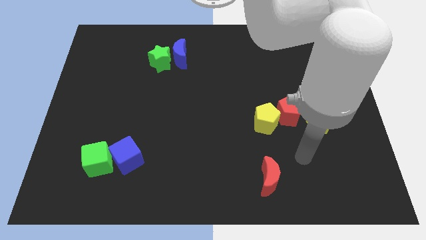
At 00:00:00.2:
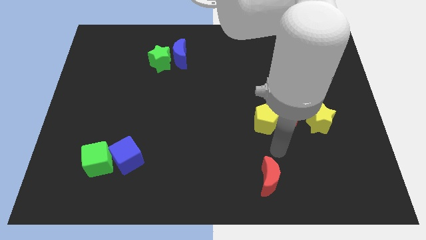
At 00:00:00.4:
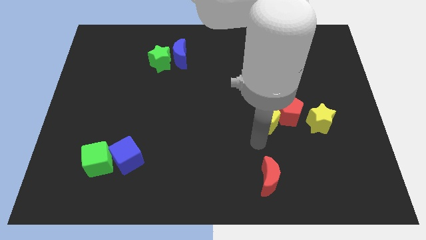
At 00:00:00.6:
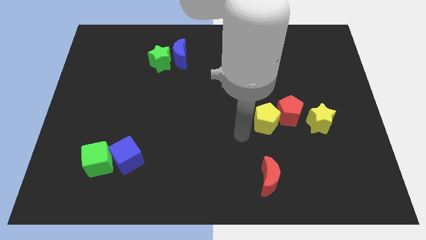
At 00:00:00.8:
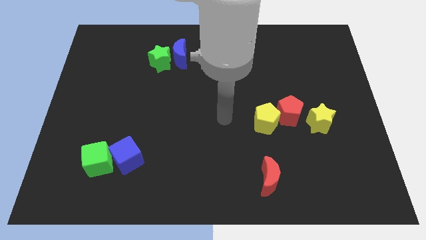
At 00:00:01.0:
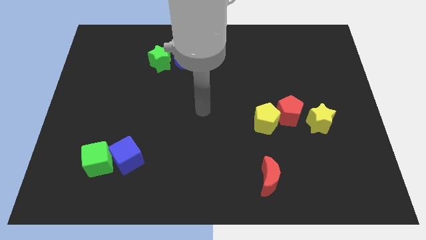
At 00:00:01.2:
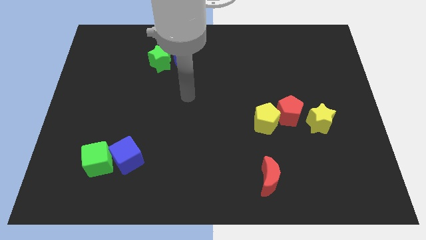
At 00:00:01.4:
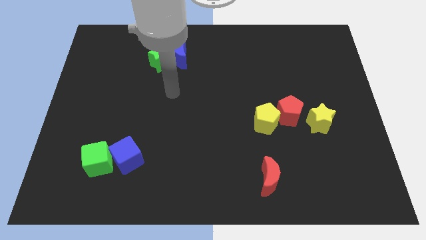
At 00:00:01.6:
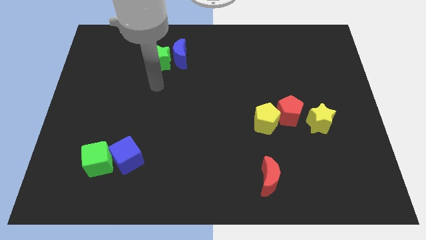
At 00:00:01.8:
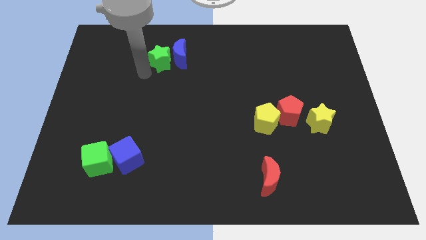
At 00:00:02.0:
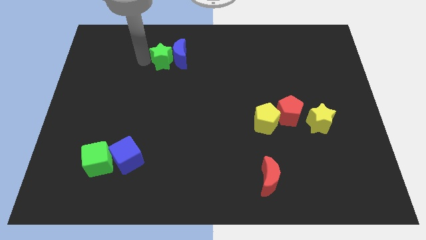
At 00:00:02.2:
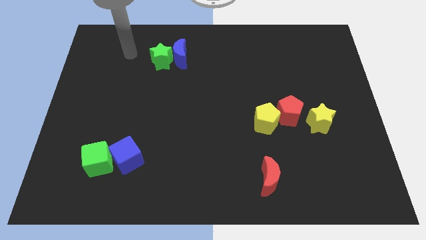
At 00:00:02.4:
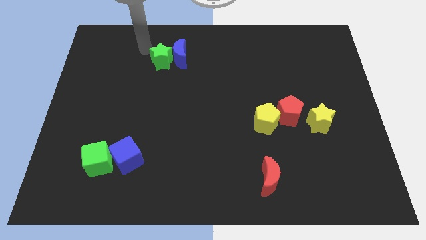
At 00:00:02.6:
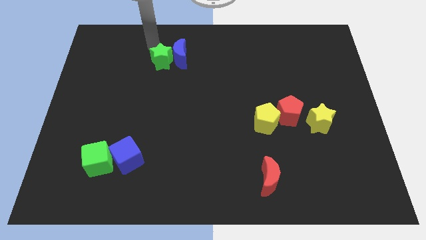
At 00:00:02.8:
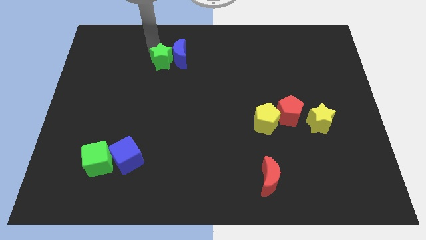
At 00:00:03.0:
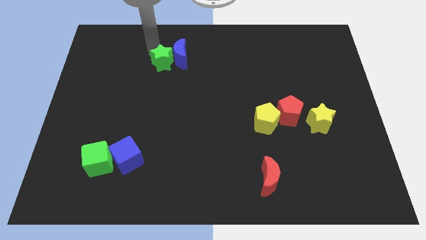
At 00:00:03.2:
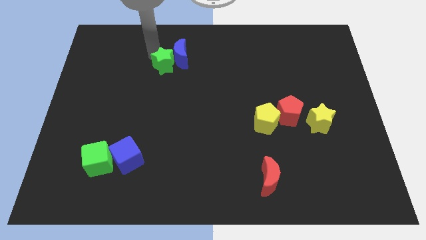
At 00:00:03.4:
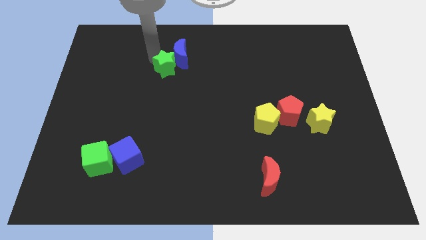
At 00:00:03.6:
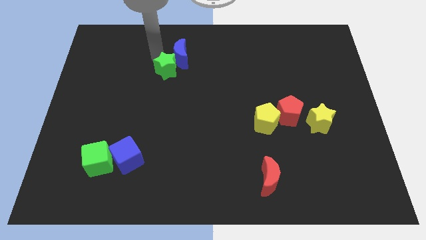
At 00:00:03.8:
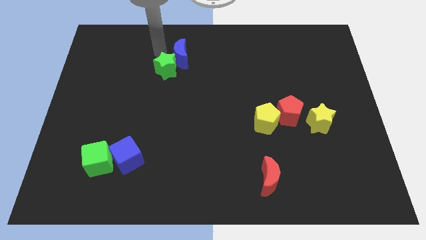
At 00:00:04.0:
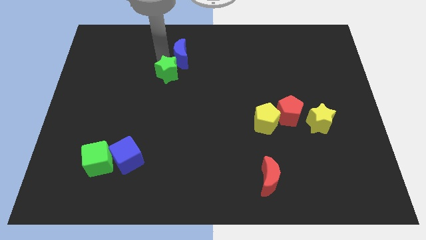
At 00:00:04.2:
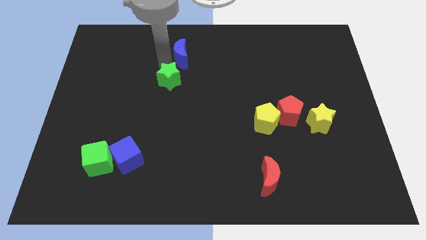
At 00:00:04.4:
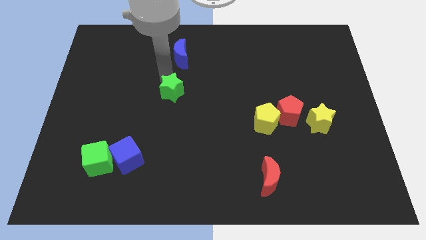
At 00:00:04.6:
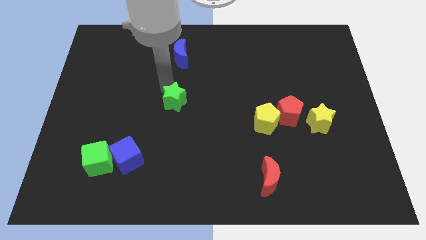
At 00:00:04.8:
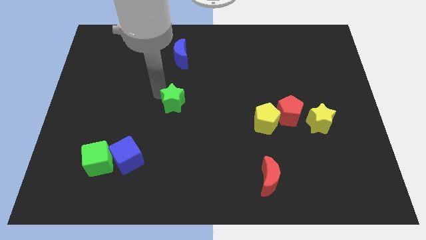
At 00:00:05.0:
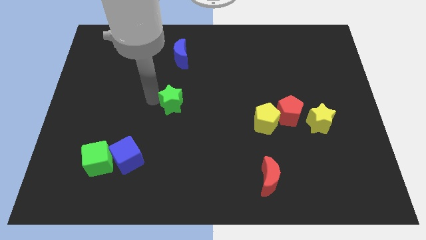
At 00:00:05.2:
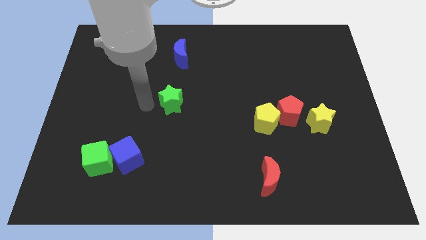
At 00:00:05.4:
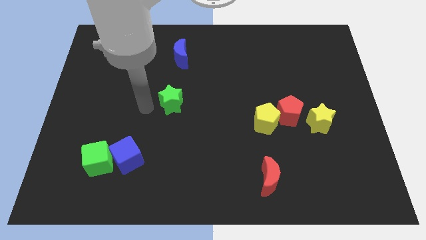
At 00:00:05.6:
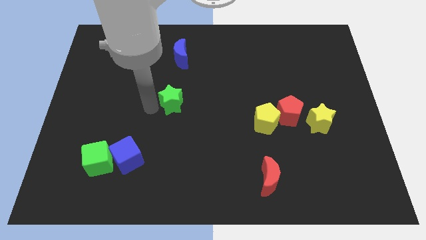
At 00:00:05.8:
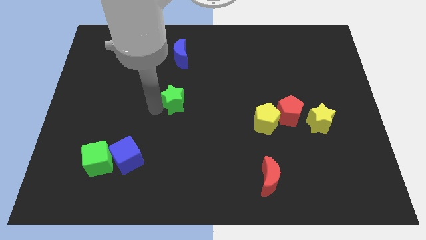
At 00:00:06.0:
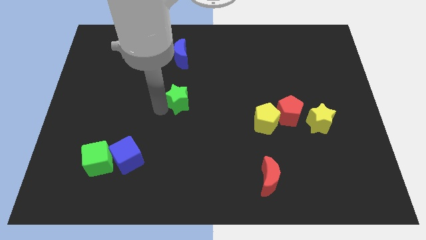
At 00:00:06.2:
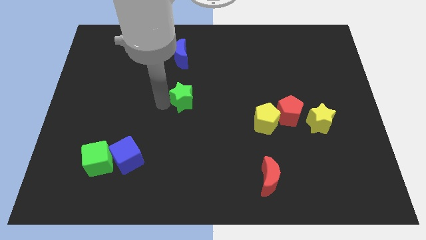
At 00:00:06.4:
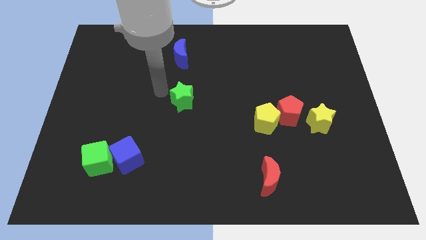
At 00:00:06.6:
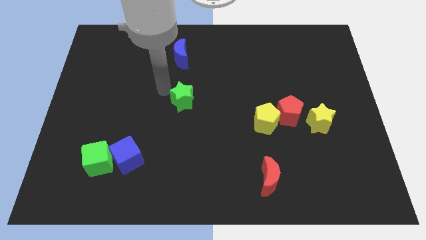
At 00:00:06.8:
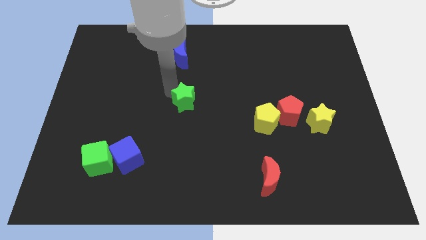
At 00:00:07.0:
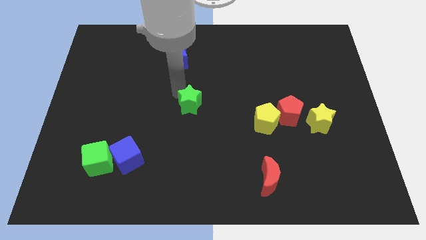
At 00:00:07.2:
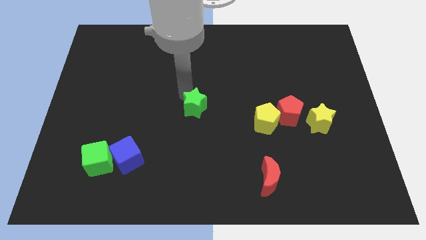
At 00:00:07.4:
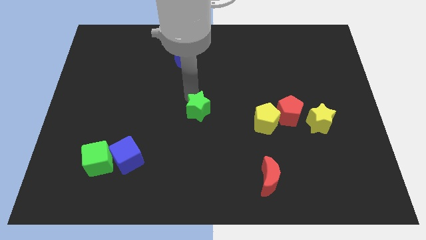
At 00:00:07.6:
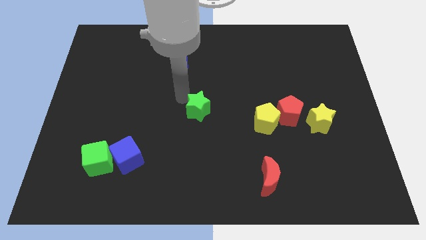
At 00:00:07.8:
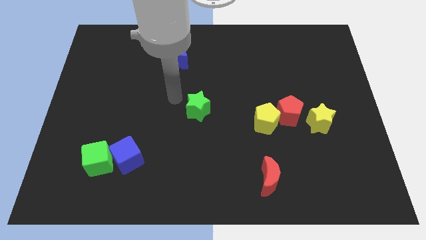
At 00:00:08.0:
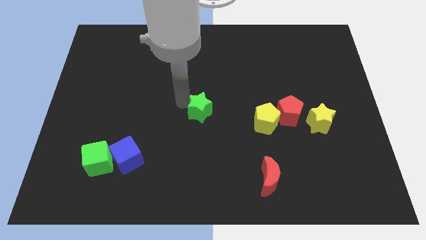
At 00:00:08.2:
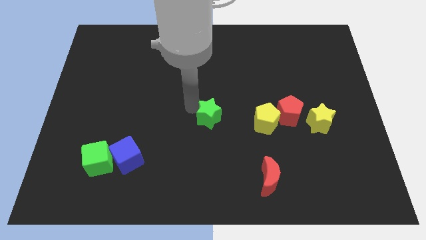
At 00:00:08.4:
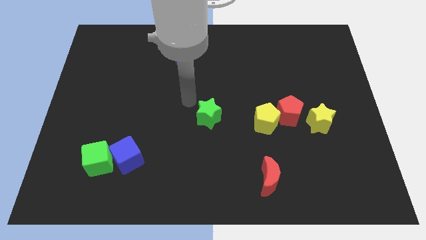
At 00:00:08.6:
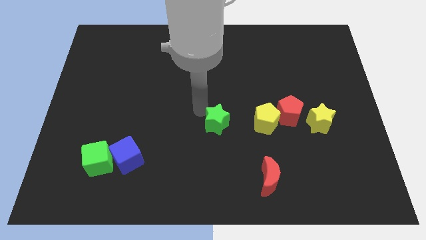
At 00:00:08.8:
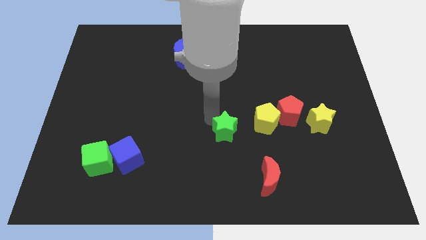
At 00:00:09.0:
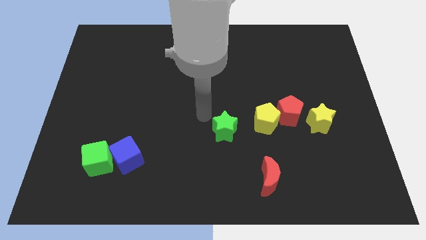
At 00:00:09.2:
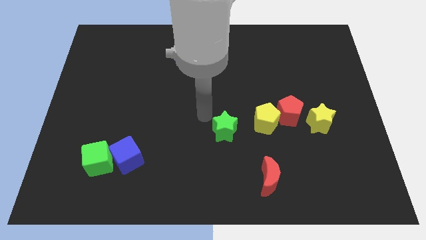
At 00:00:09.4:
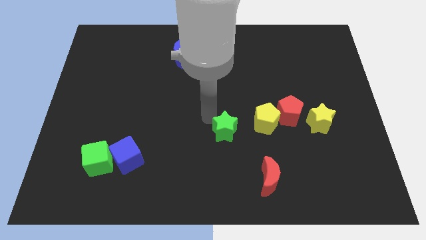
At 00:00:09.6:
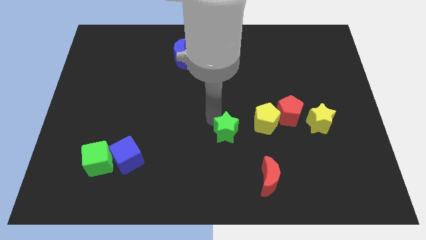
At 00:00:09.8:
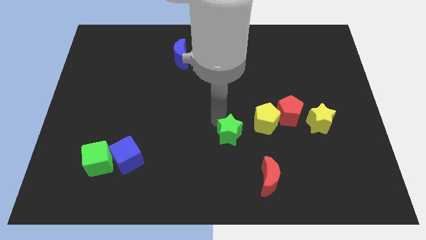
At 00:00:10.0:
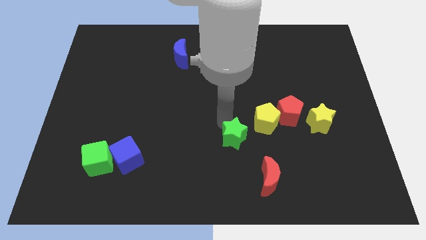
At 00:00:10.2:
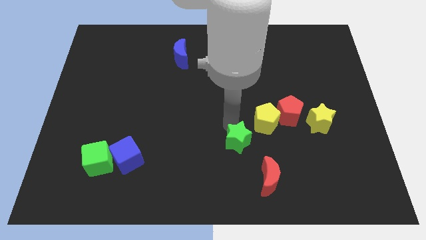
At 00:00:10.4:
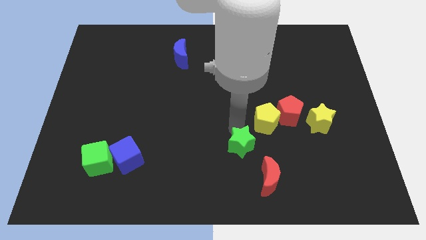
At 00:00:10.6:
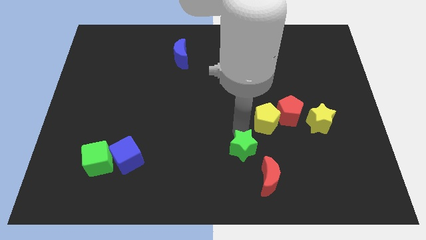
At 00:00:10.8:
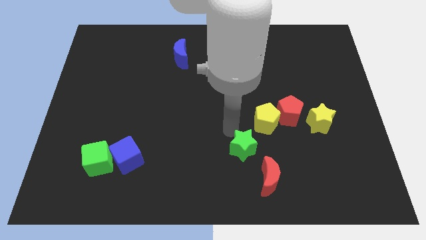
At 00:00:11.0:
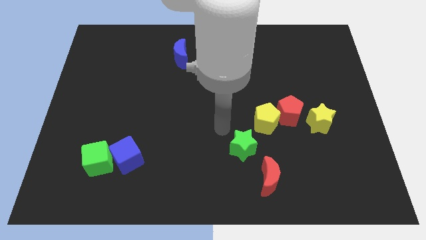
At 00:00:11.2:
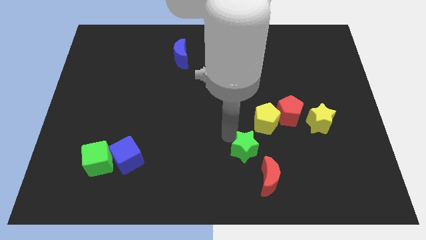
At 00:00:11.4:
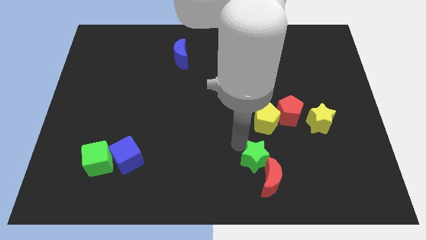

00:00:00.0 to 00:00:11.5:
push the green star next to the red moon

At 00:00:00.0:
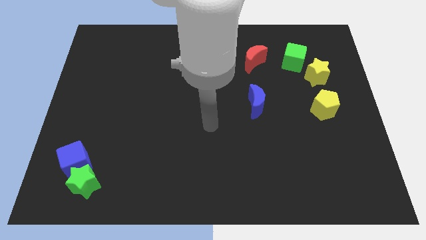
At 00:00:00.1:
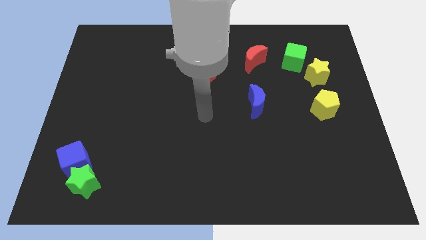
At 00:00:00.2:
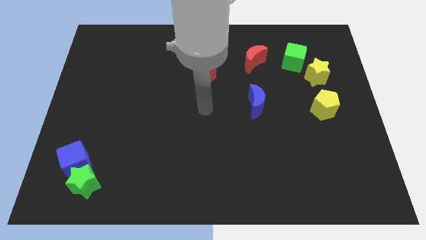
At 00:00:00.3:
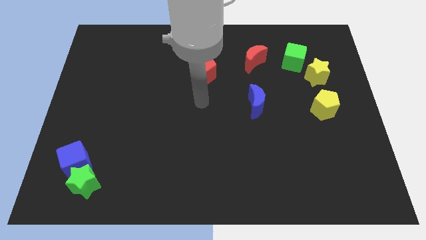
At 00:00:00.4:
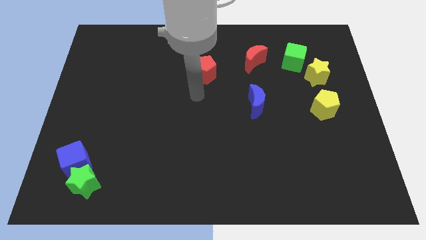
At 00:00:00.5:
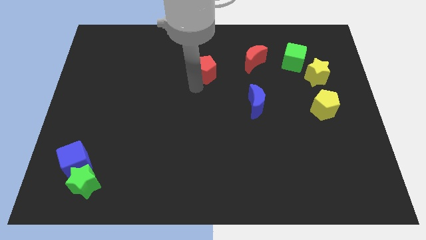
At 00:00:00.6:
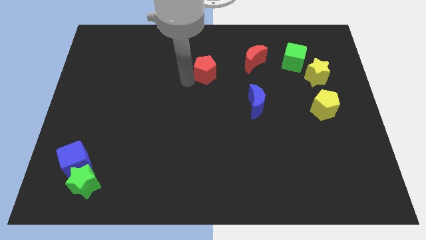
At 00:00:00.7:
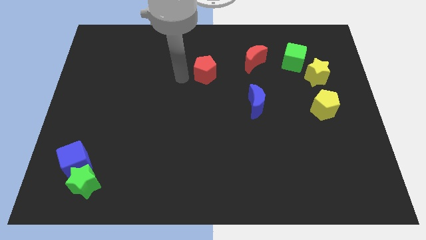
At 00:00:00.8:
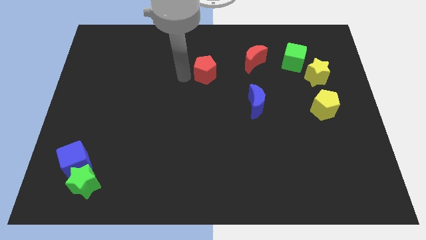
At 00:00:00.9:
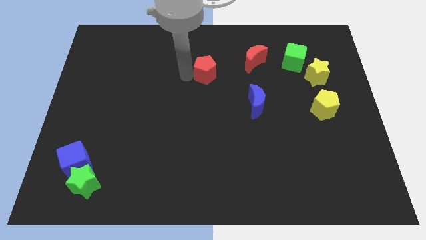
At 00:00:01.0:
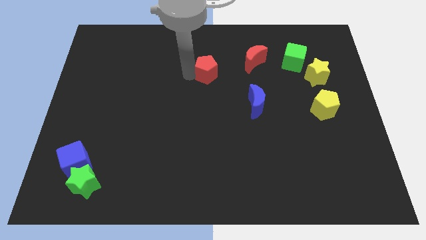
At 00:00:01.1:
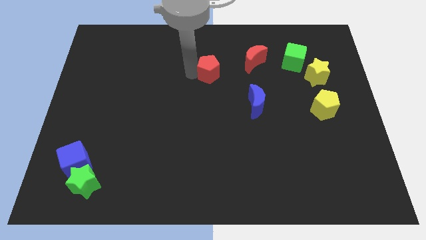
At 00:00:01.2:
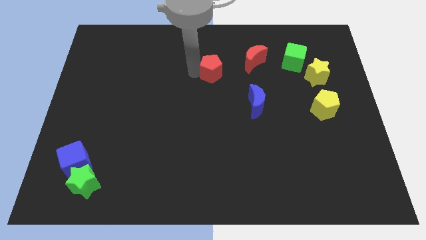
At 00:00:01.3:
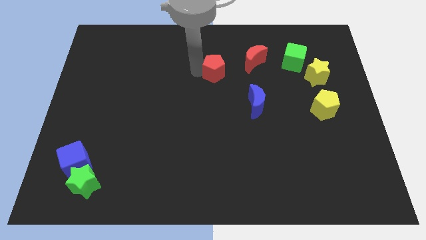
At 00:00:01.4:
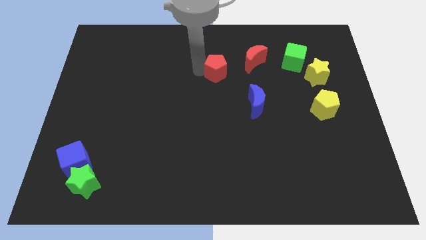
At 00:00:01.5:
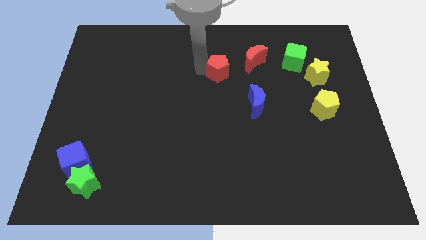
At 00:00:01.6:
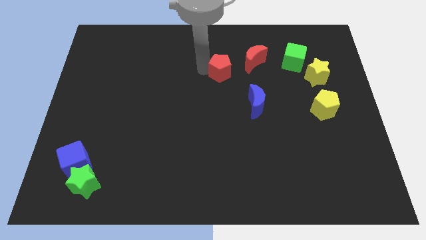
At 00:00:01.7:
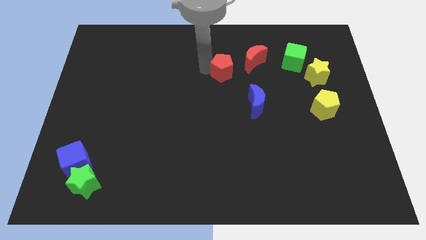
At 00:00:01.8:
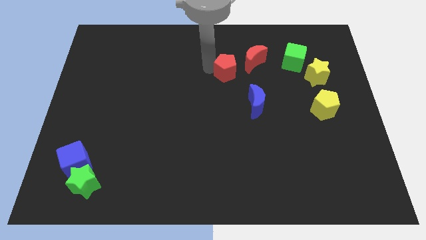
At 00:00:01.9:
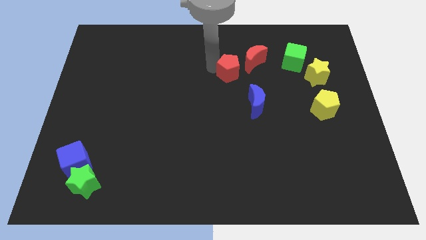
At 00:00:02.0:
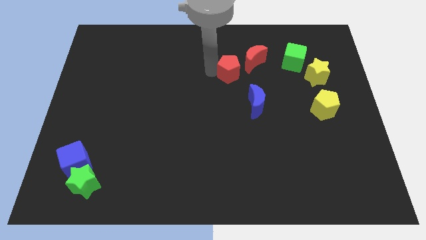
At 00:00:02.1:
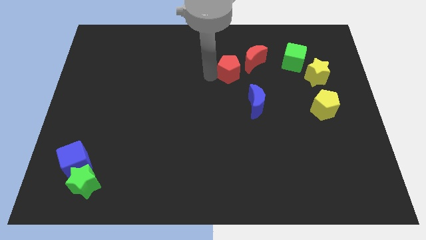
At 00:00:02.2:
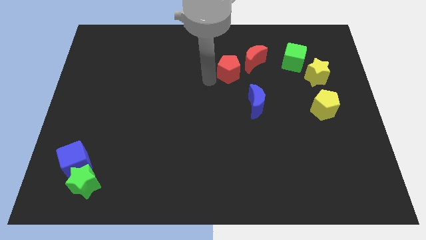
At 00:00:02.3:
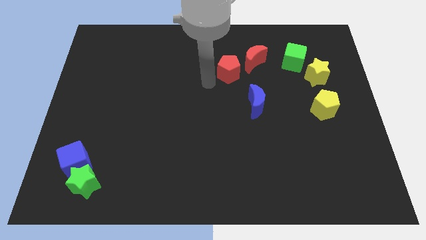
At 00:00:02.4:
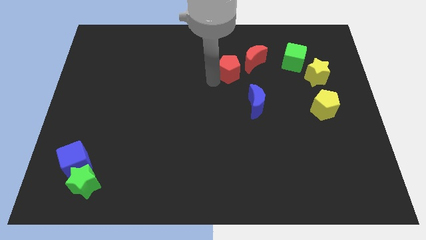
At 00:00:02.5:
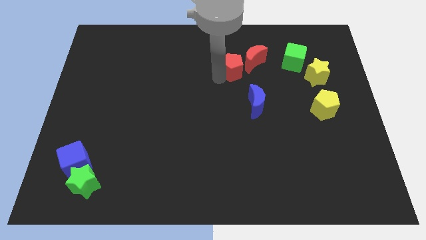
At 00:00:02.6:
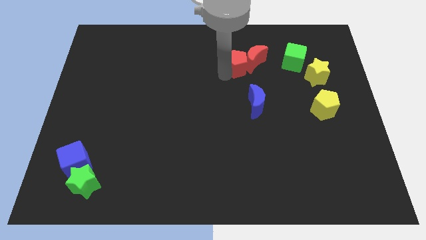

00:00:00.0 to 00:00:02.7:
slide the red pentagon towards the red moon
